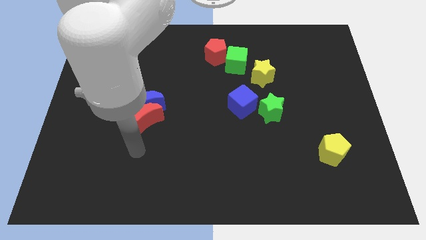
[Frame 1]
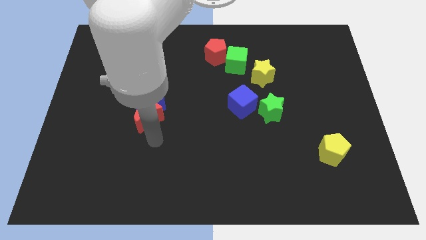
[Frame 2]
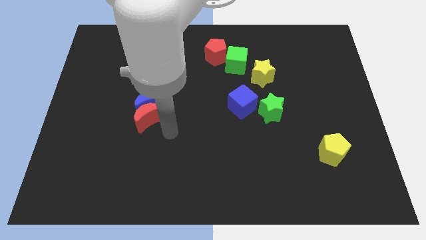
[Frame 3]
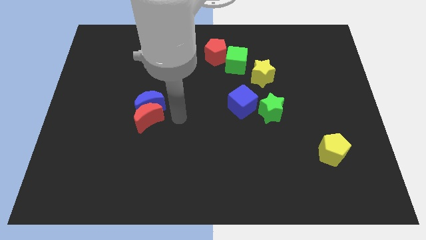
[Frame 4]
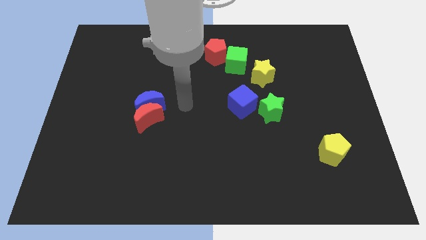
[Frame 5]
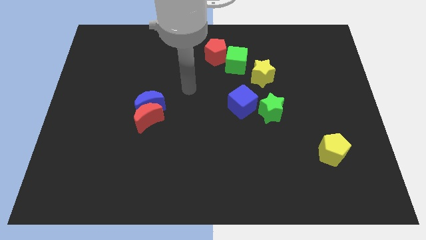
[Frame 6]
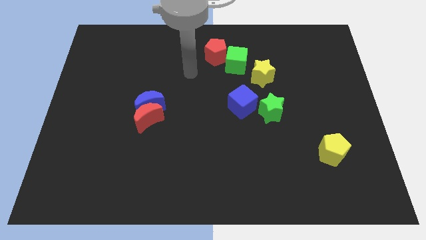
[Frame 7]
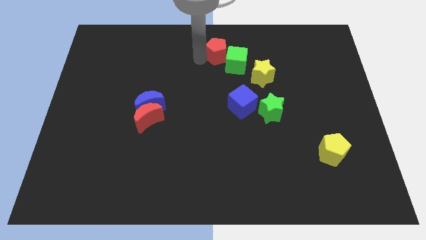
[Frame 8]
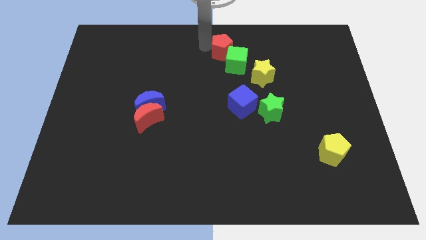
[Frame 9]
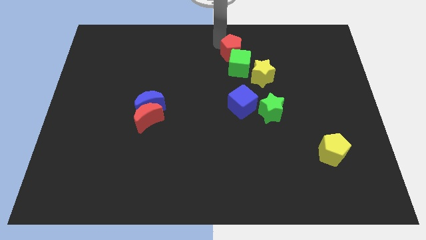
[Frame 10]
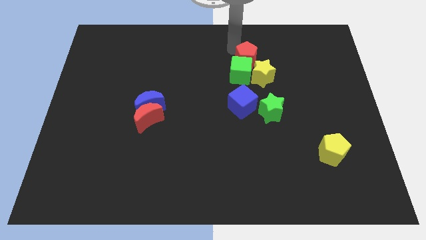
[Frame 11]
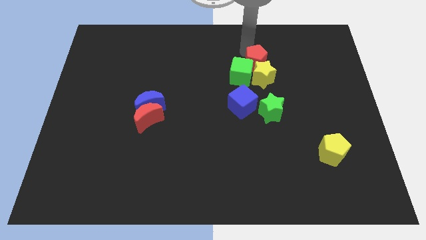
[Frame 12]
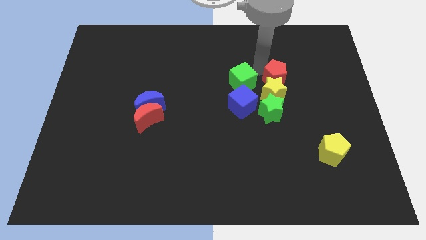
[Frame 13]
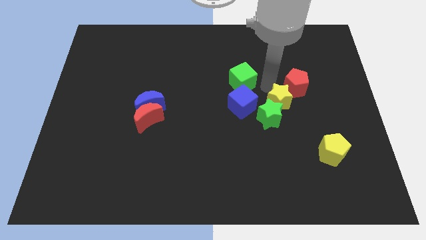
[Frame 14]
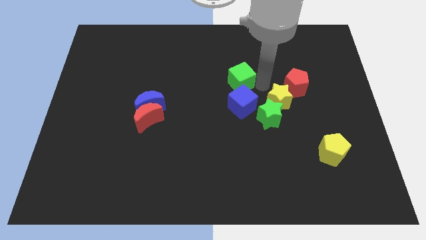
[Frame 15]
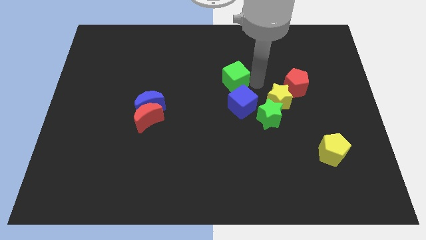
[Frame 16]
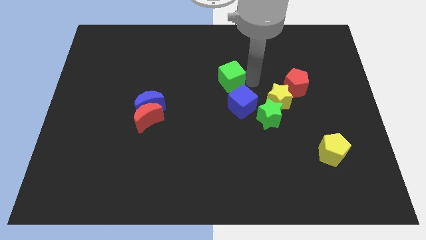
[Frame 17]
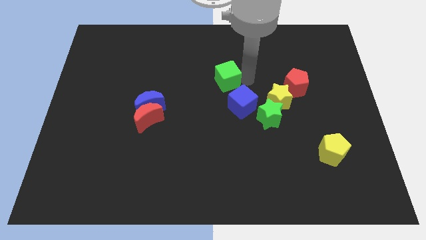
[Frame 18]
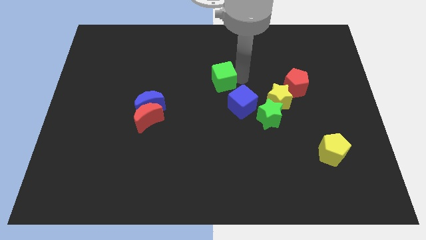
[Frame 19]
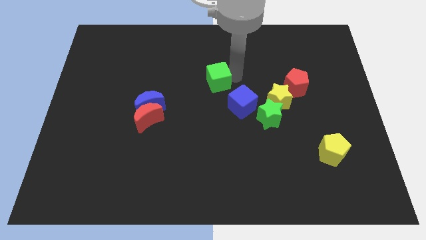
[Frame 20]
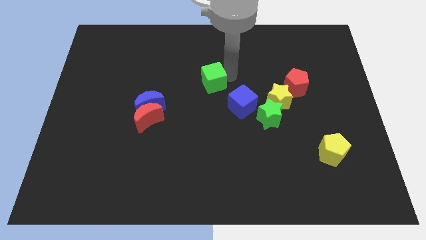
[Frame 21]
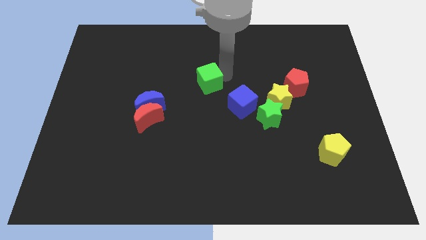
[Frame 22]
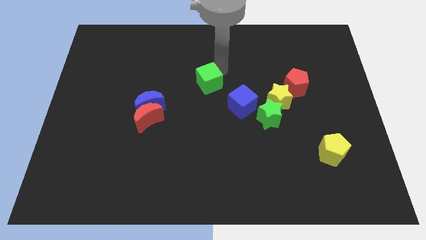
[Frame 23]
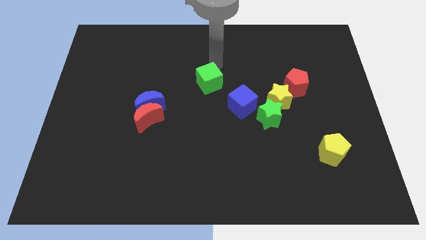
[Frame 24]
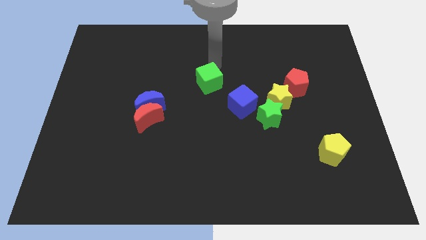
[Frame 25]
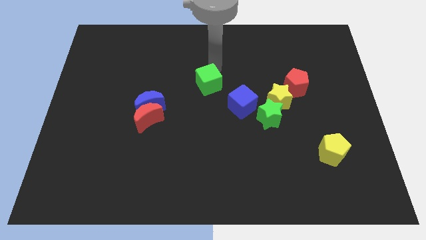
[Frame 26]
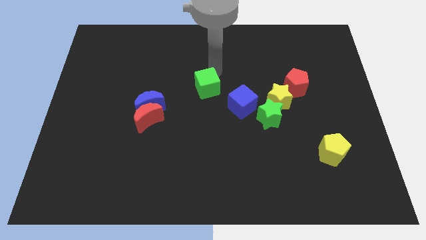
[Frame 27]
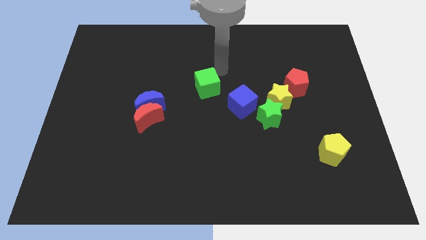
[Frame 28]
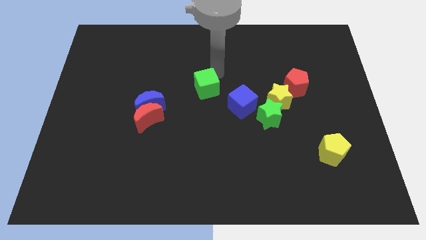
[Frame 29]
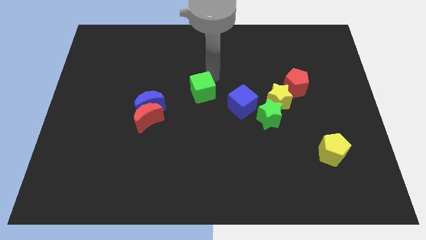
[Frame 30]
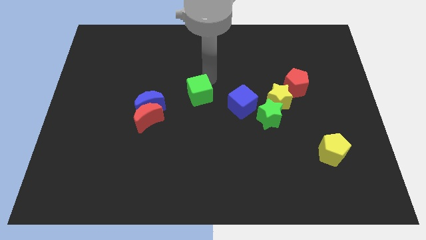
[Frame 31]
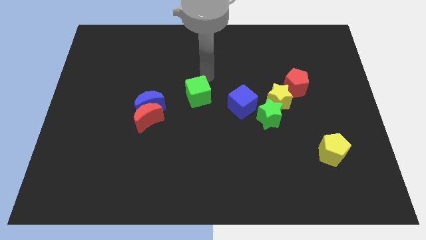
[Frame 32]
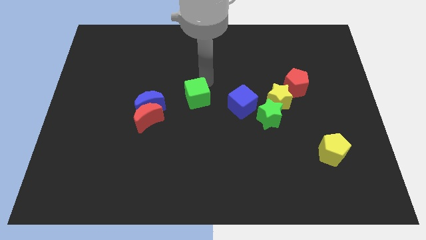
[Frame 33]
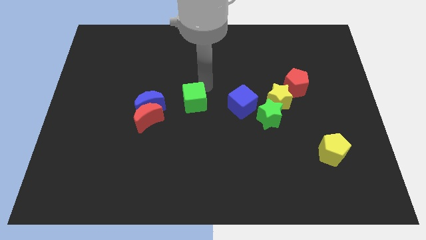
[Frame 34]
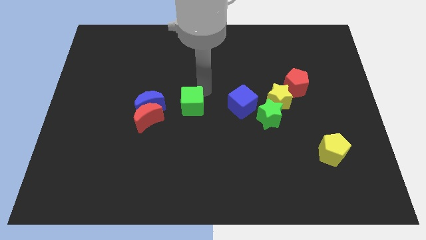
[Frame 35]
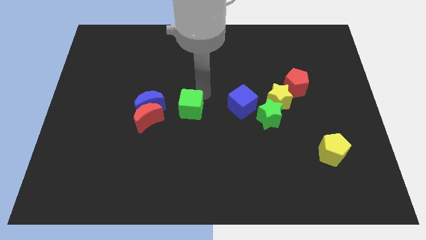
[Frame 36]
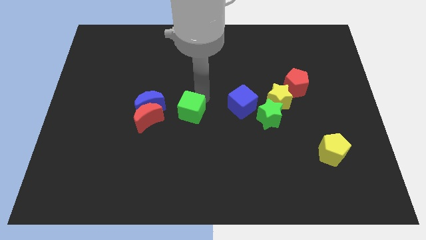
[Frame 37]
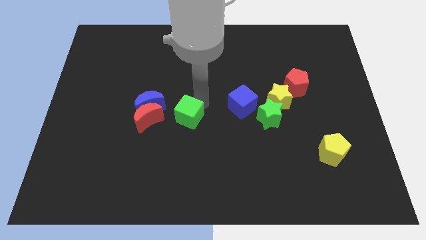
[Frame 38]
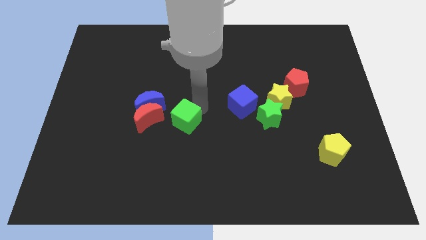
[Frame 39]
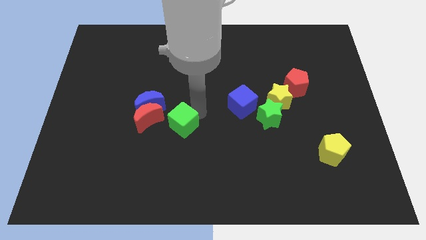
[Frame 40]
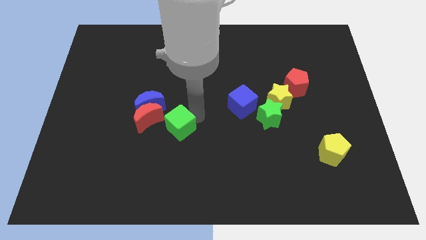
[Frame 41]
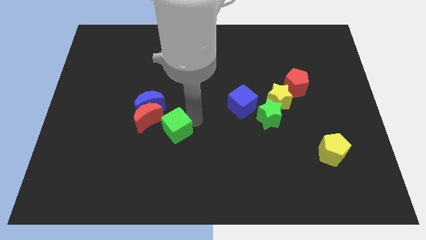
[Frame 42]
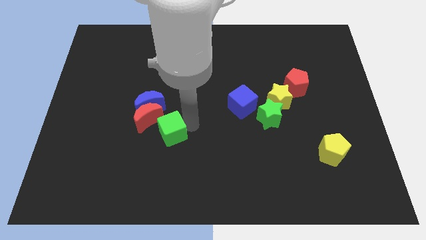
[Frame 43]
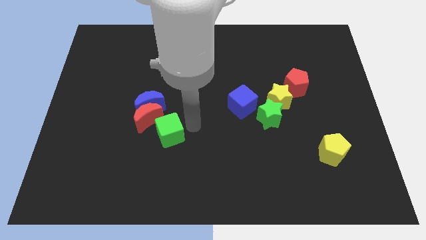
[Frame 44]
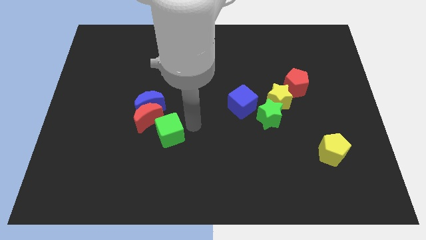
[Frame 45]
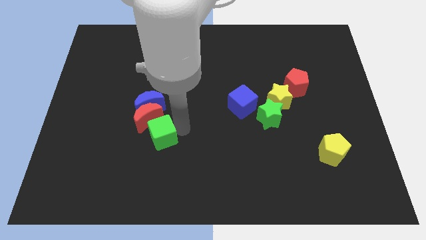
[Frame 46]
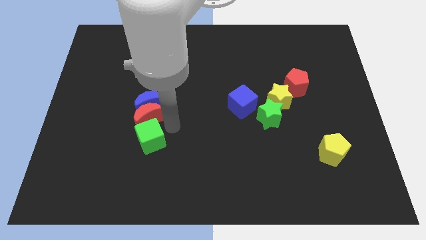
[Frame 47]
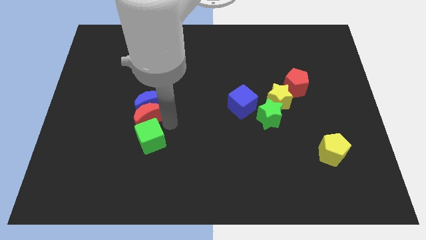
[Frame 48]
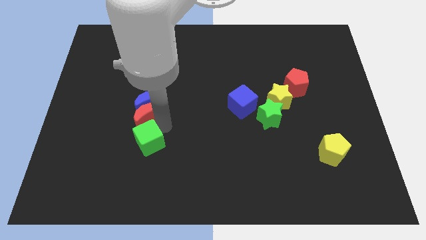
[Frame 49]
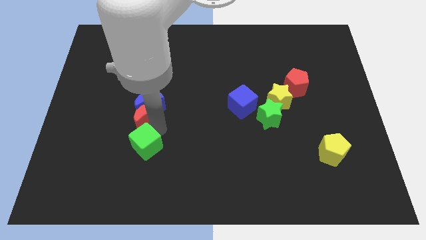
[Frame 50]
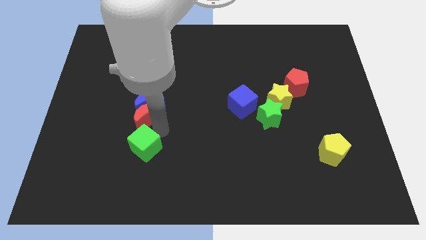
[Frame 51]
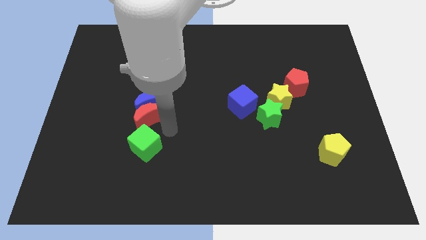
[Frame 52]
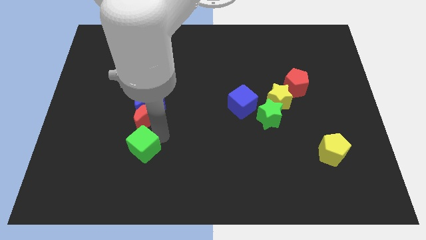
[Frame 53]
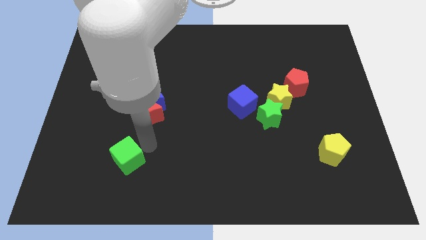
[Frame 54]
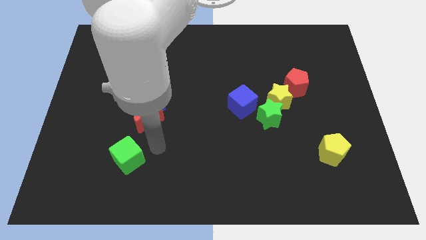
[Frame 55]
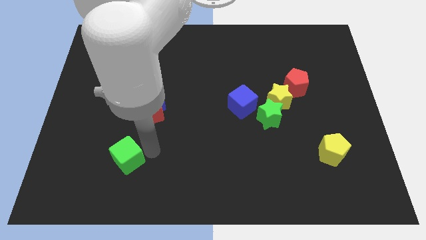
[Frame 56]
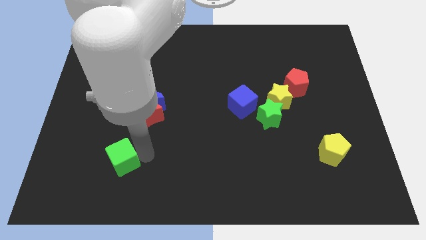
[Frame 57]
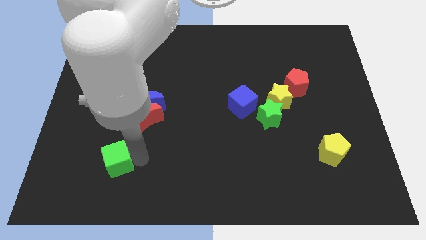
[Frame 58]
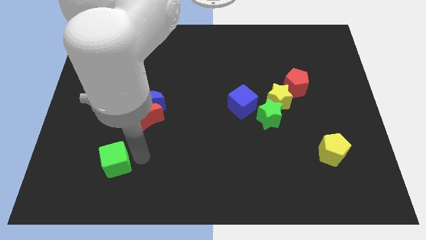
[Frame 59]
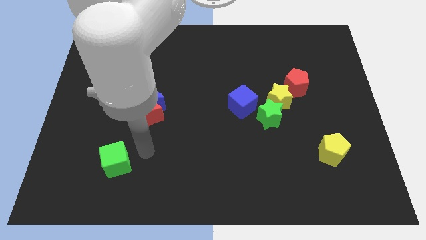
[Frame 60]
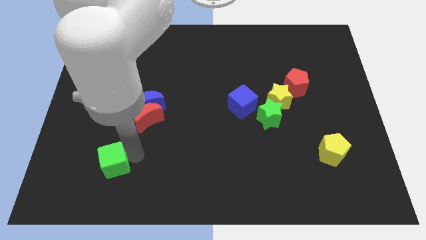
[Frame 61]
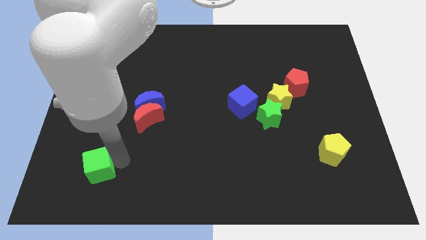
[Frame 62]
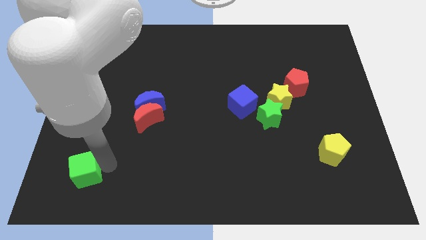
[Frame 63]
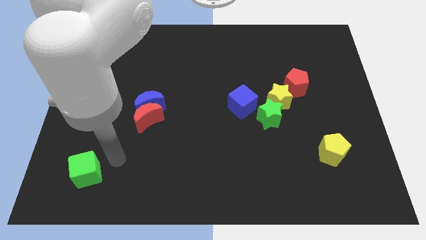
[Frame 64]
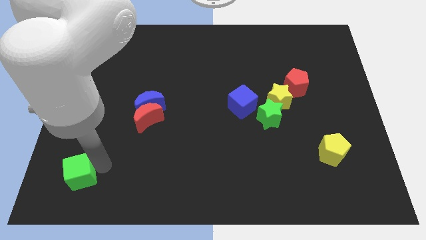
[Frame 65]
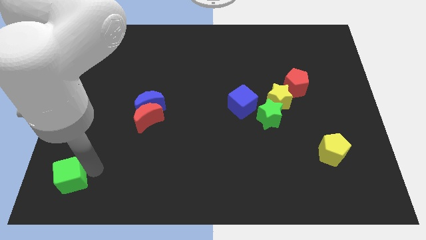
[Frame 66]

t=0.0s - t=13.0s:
slide the green cube to the bottom left of the board
